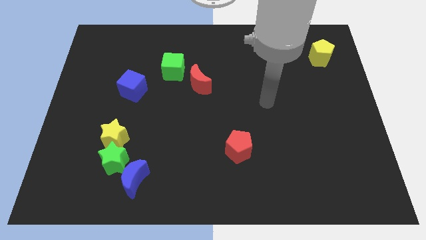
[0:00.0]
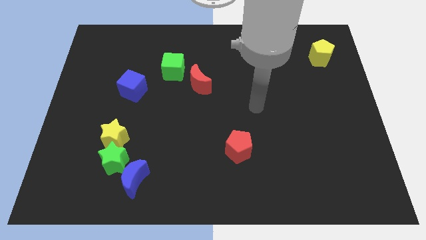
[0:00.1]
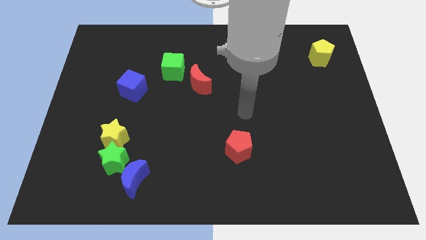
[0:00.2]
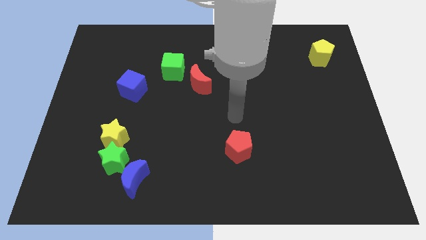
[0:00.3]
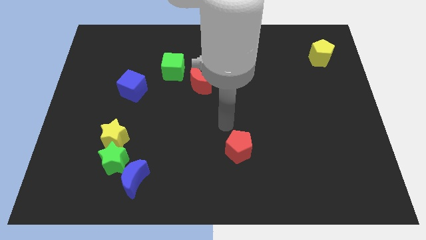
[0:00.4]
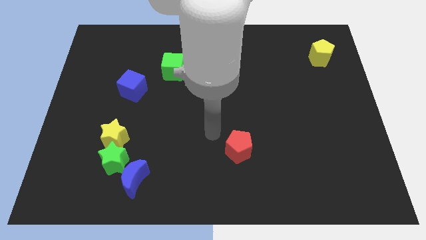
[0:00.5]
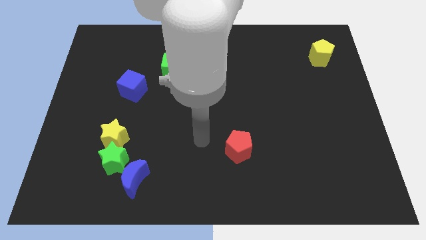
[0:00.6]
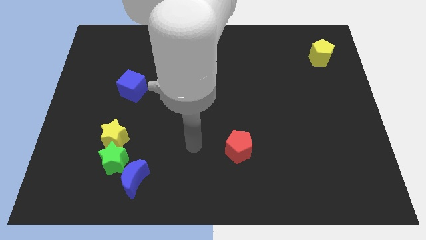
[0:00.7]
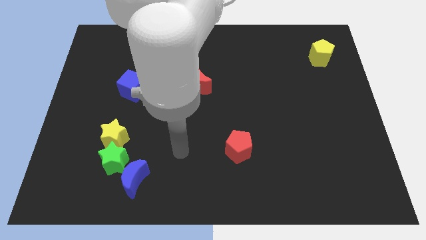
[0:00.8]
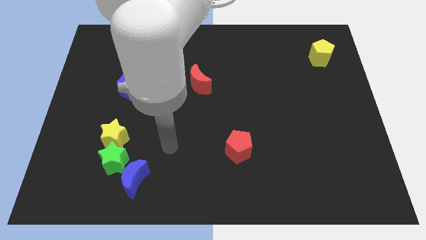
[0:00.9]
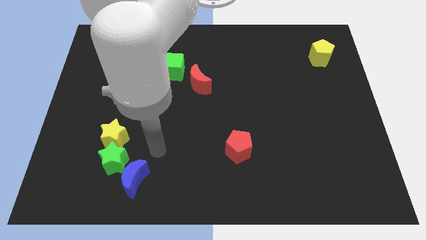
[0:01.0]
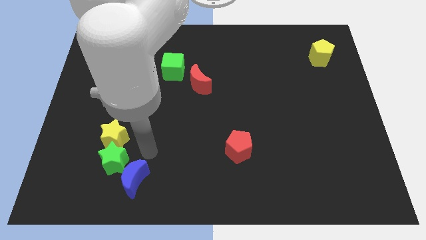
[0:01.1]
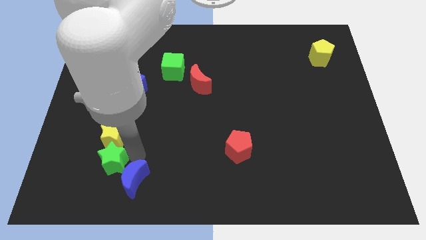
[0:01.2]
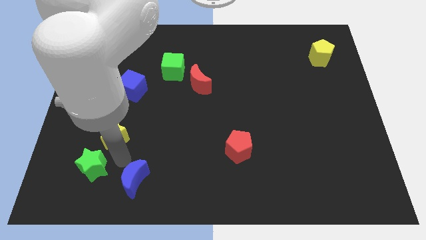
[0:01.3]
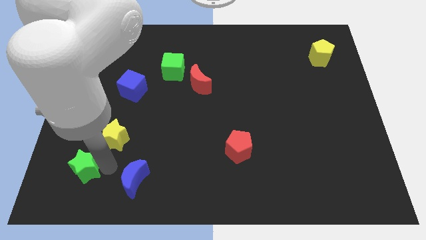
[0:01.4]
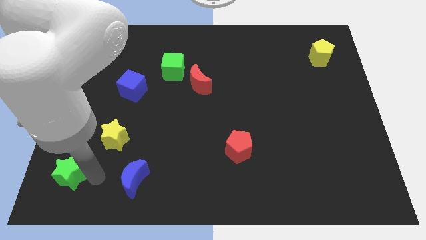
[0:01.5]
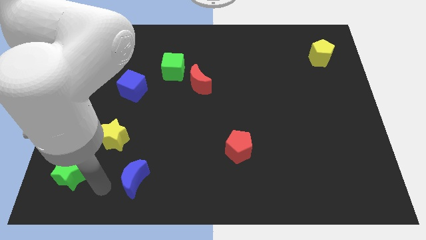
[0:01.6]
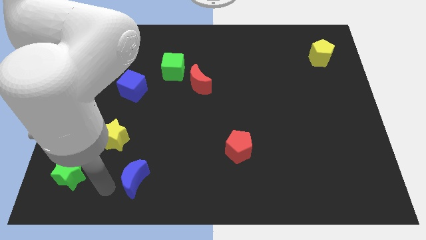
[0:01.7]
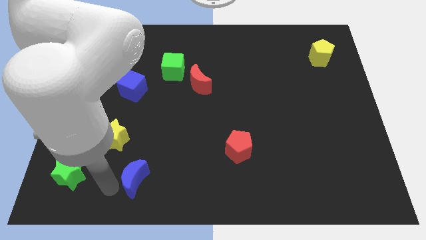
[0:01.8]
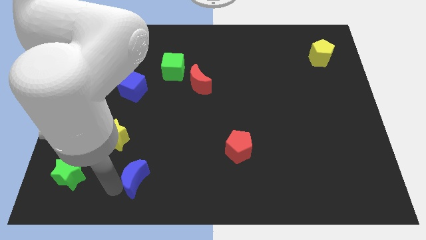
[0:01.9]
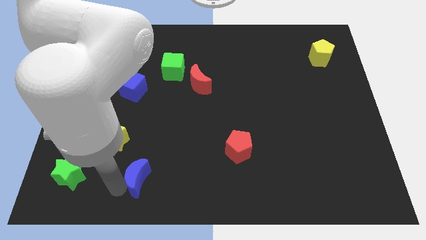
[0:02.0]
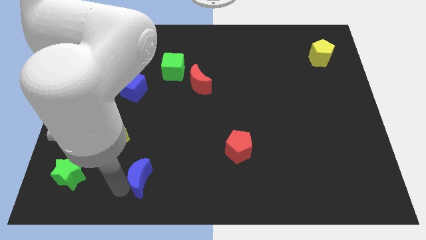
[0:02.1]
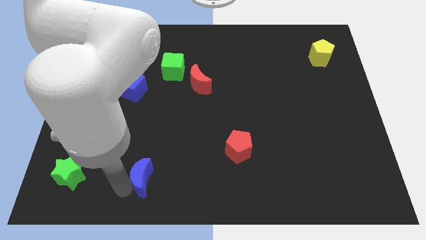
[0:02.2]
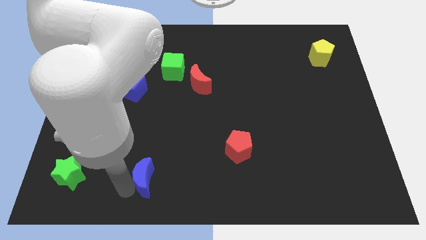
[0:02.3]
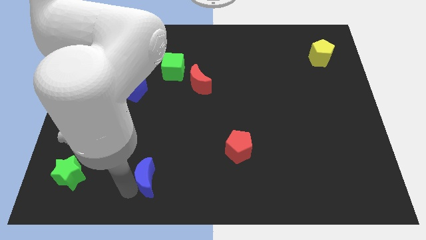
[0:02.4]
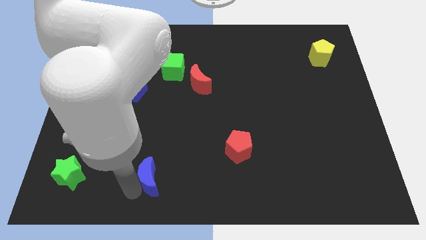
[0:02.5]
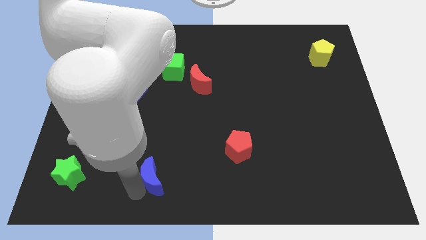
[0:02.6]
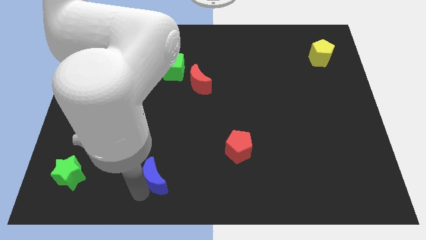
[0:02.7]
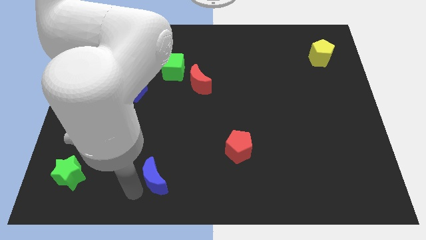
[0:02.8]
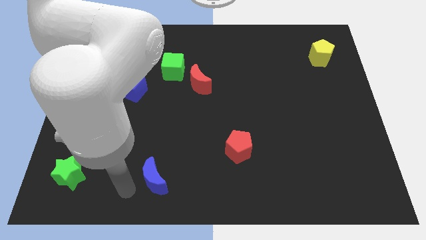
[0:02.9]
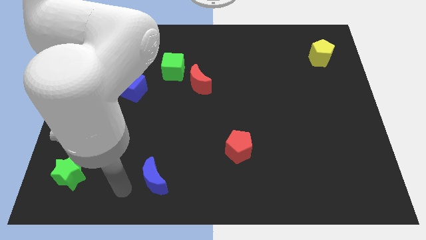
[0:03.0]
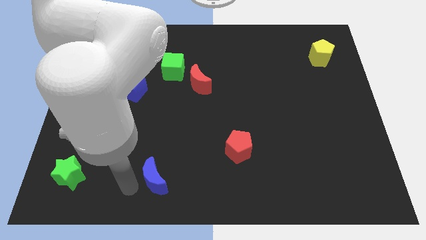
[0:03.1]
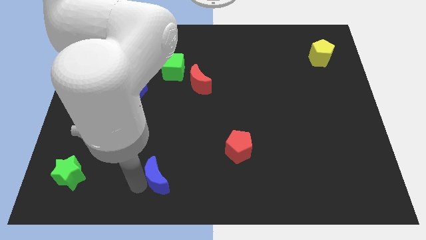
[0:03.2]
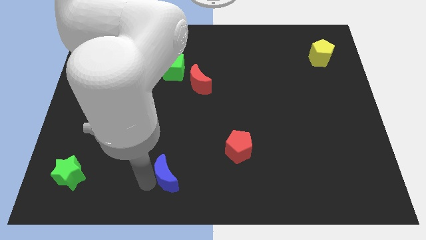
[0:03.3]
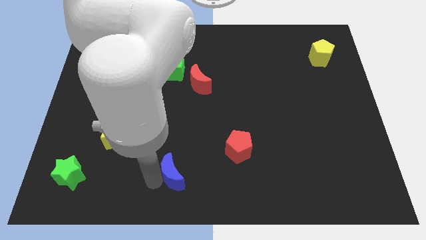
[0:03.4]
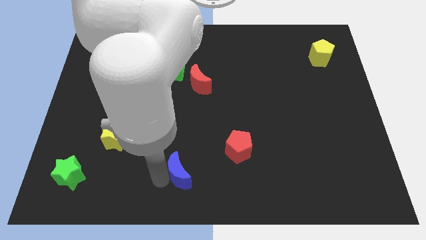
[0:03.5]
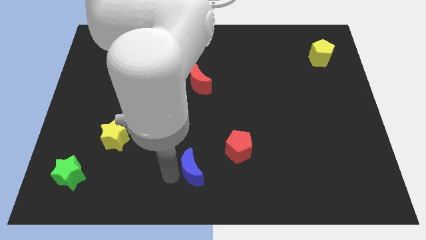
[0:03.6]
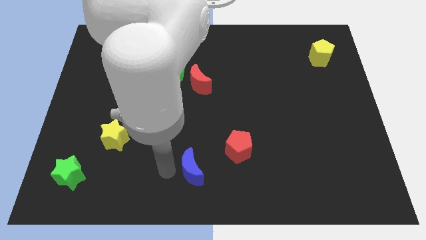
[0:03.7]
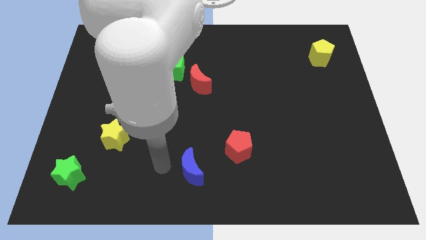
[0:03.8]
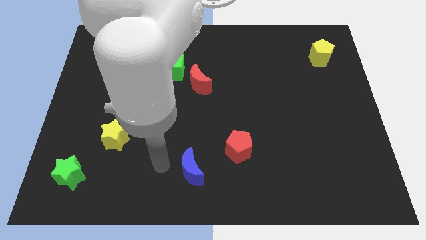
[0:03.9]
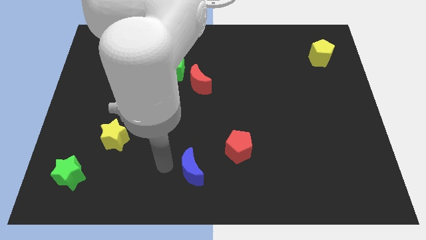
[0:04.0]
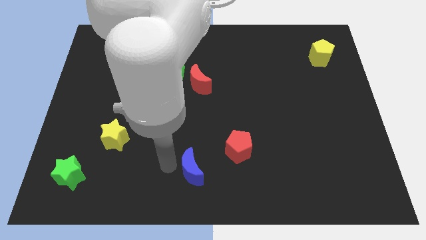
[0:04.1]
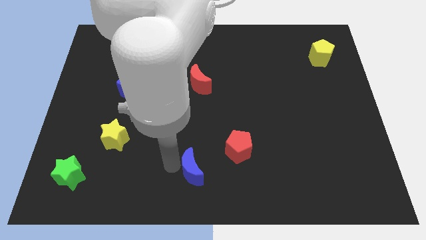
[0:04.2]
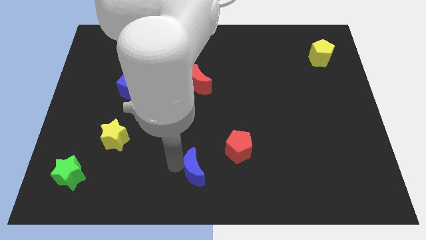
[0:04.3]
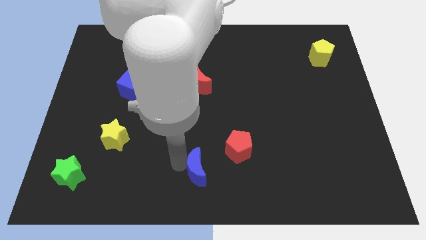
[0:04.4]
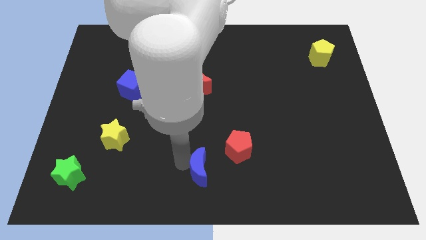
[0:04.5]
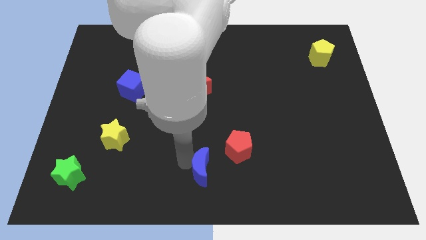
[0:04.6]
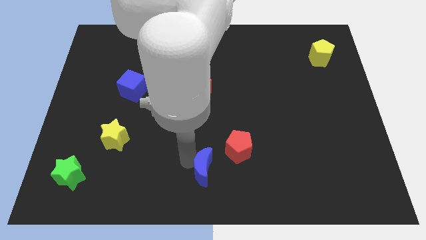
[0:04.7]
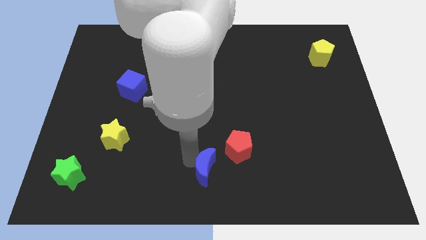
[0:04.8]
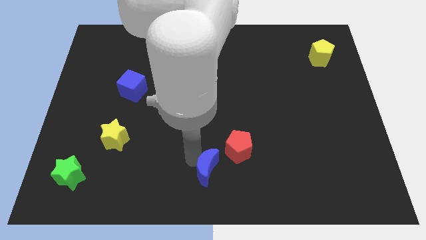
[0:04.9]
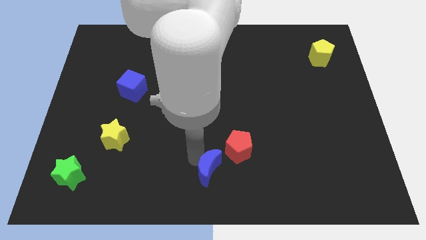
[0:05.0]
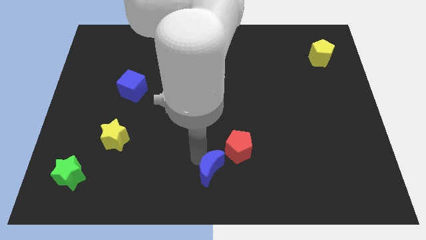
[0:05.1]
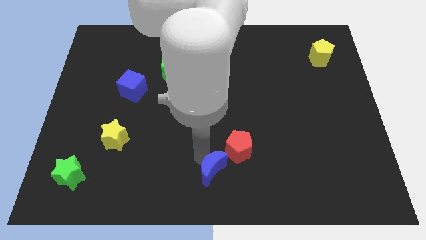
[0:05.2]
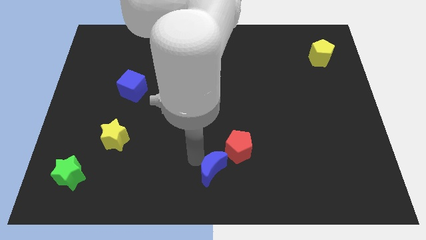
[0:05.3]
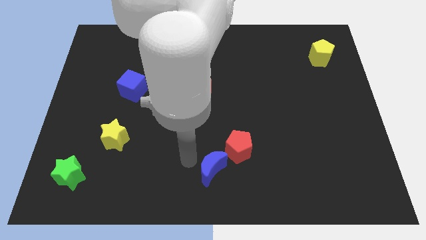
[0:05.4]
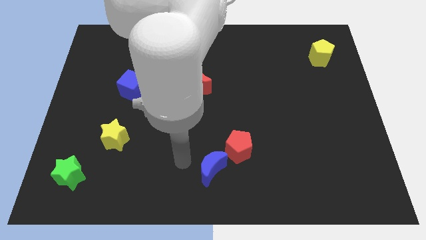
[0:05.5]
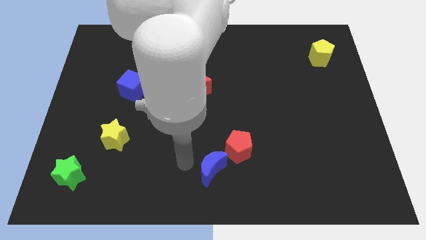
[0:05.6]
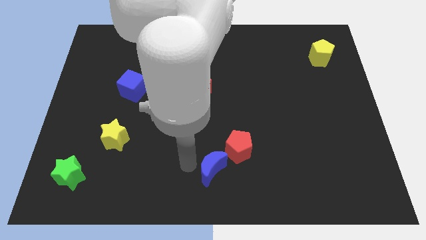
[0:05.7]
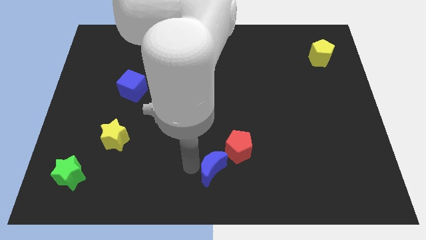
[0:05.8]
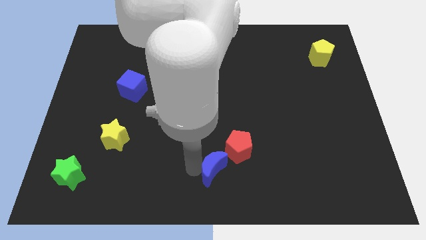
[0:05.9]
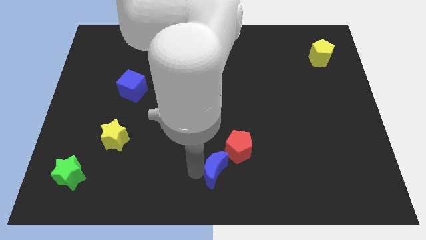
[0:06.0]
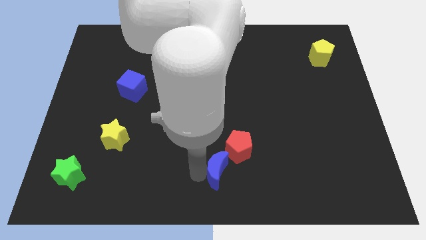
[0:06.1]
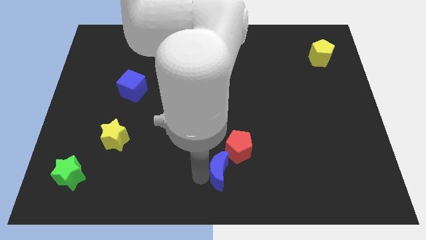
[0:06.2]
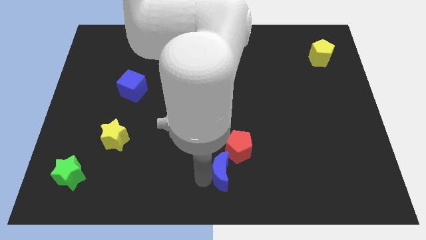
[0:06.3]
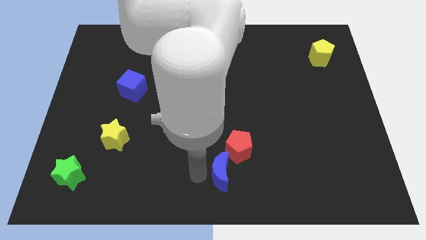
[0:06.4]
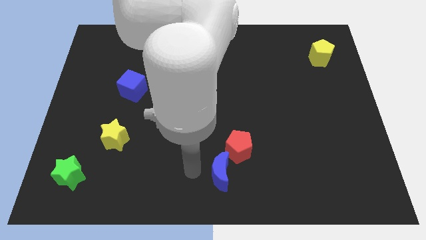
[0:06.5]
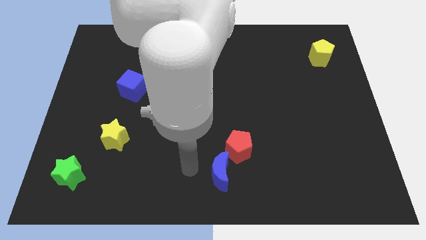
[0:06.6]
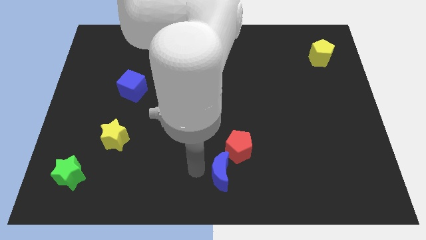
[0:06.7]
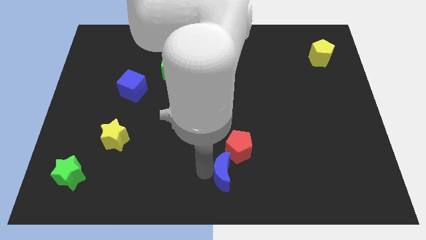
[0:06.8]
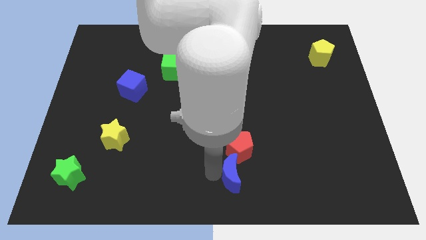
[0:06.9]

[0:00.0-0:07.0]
push the blue moon to the right

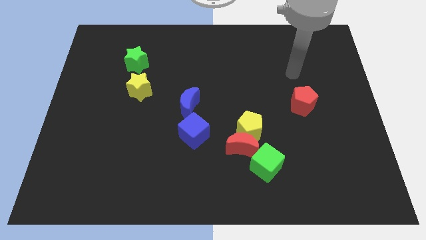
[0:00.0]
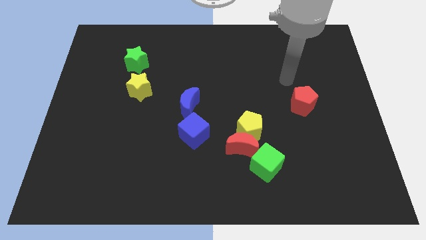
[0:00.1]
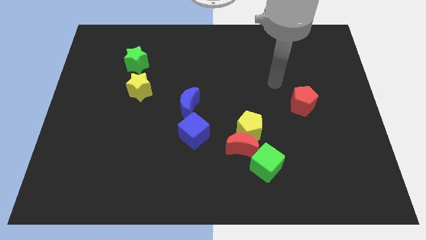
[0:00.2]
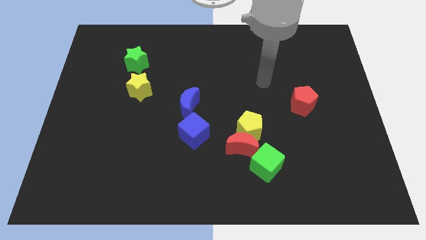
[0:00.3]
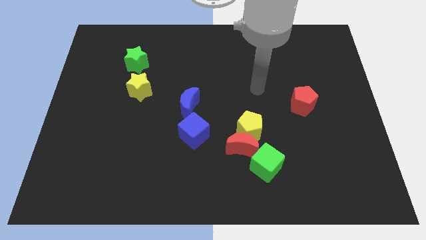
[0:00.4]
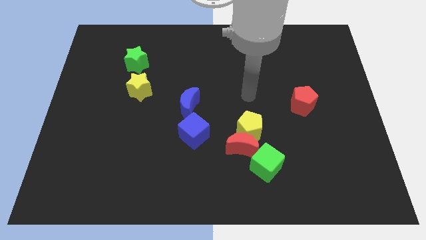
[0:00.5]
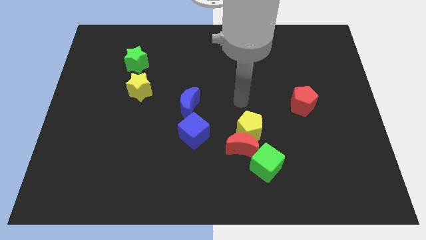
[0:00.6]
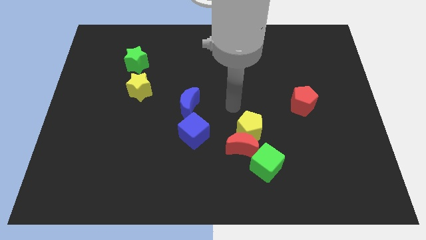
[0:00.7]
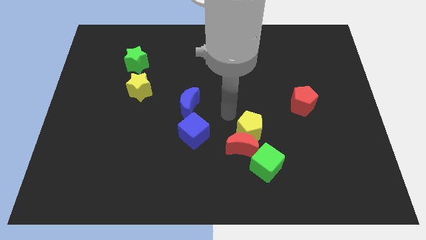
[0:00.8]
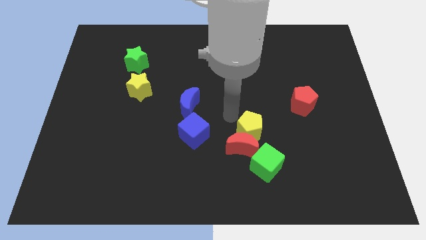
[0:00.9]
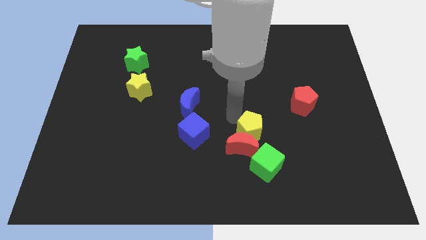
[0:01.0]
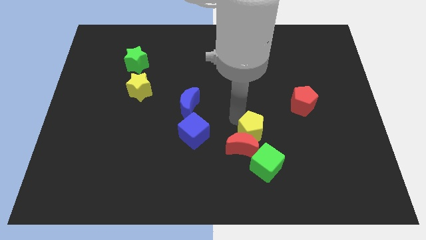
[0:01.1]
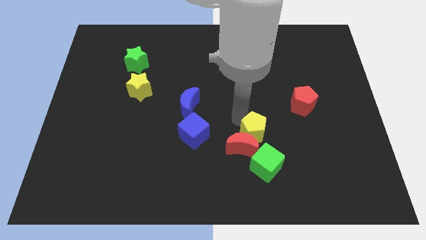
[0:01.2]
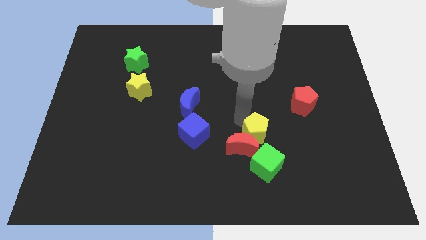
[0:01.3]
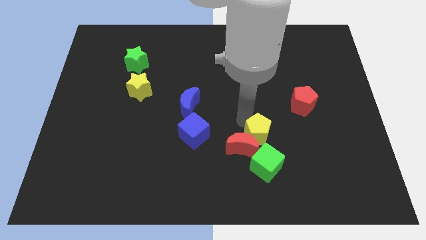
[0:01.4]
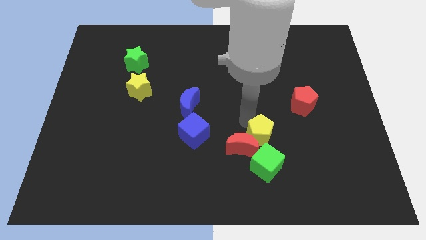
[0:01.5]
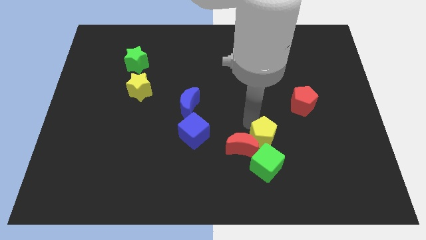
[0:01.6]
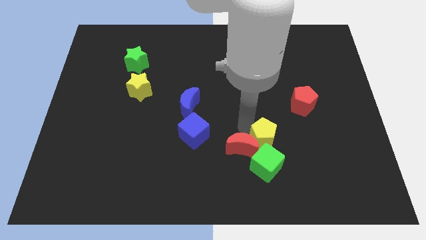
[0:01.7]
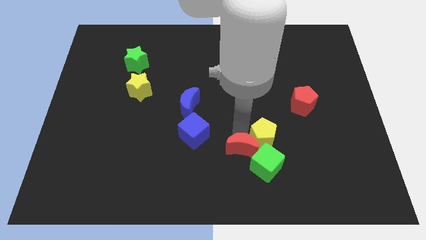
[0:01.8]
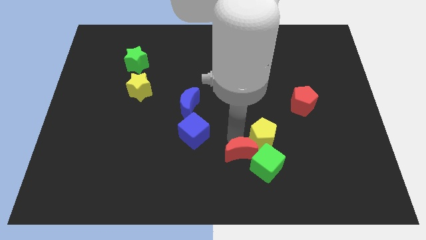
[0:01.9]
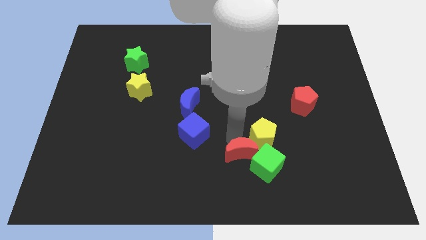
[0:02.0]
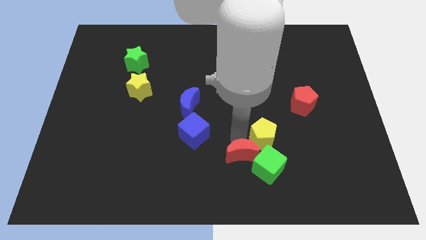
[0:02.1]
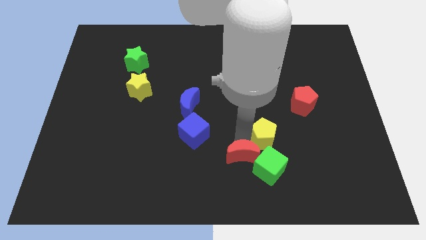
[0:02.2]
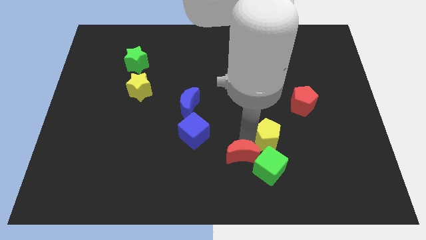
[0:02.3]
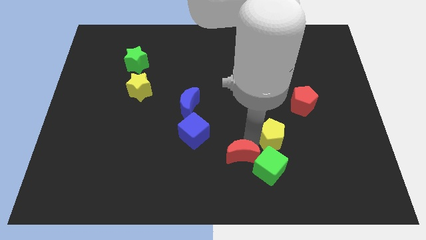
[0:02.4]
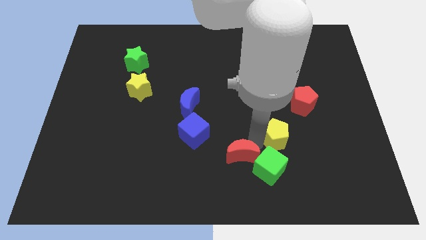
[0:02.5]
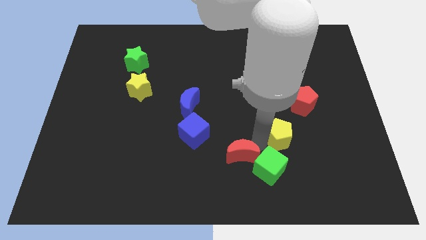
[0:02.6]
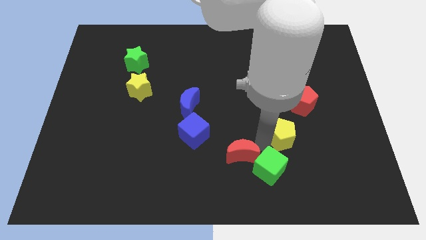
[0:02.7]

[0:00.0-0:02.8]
slide the yellow pentagon a bit right
